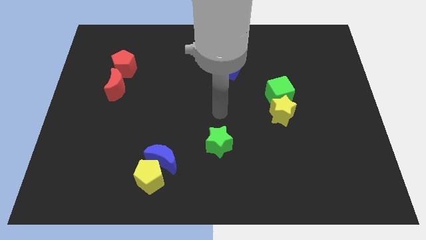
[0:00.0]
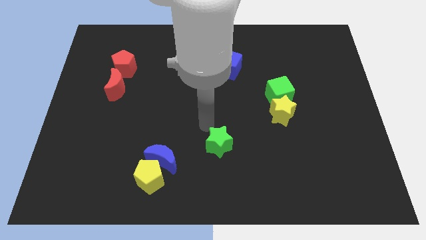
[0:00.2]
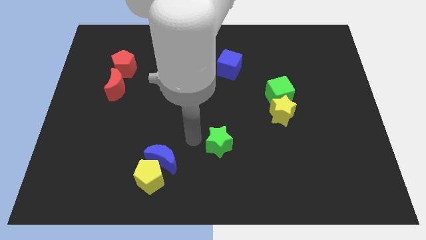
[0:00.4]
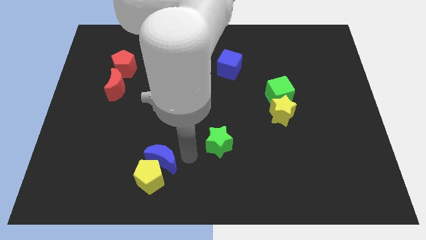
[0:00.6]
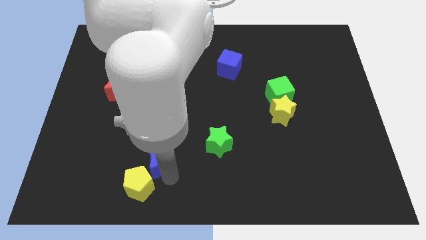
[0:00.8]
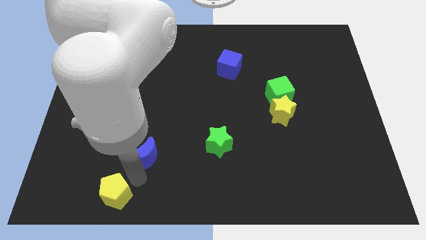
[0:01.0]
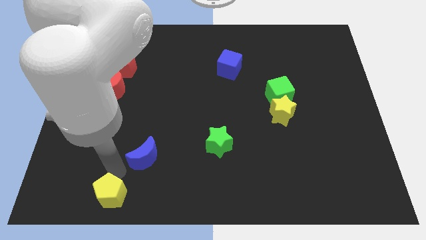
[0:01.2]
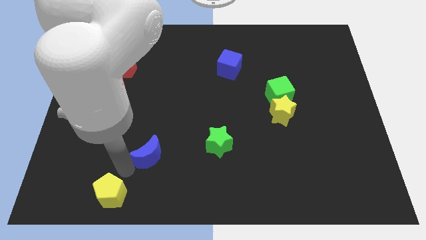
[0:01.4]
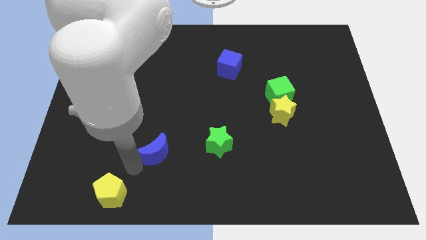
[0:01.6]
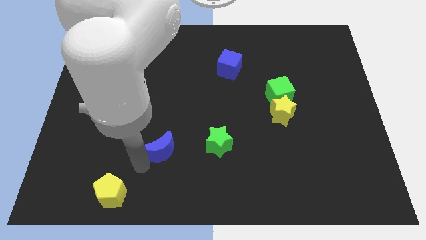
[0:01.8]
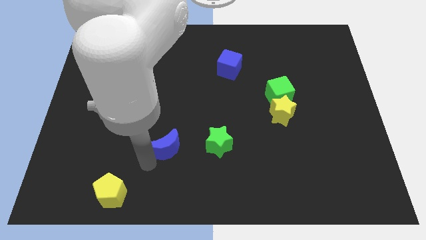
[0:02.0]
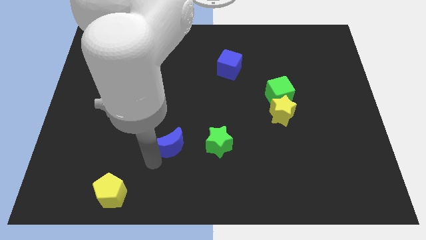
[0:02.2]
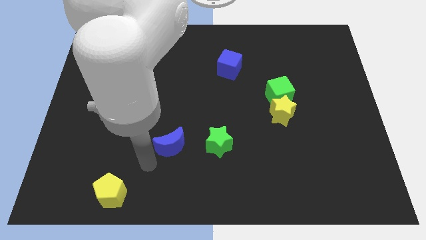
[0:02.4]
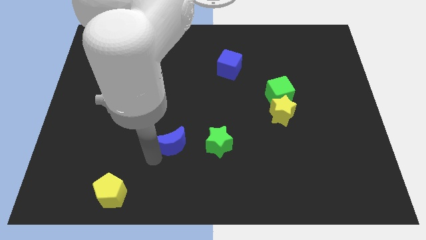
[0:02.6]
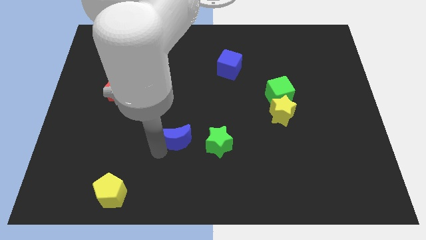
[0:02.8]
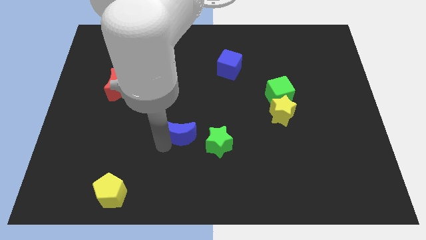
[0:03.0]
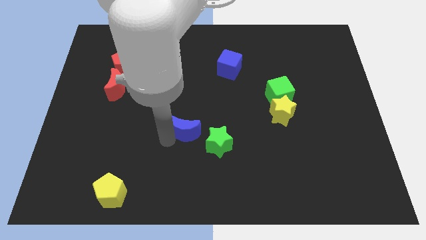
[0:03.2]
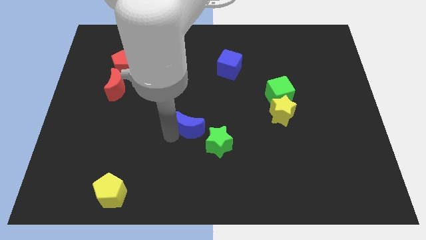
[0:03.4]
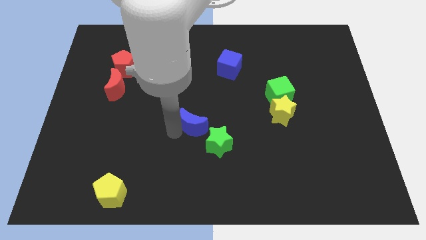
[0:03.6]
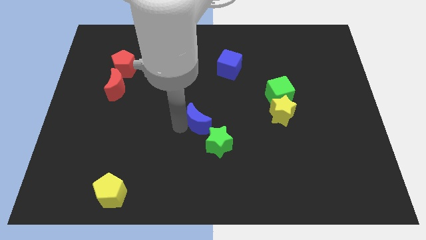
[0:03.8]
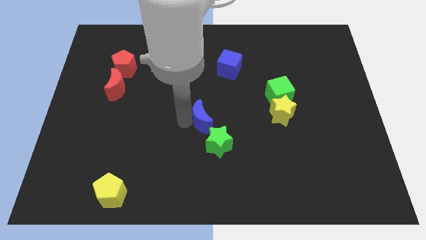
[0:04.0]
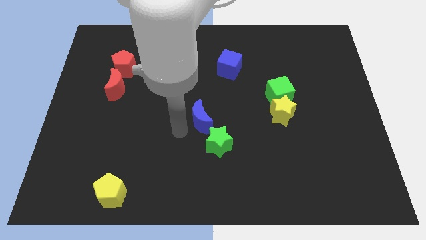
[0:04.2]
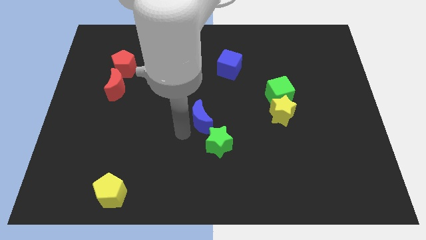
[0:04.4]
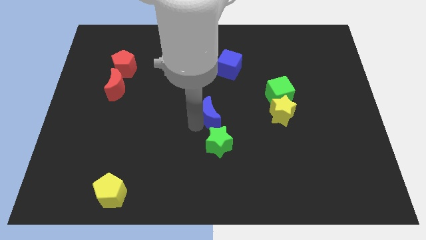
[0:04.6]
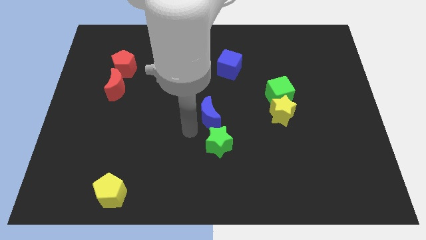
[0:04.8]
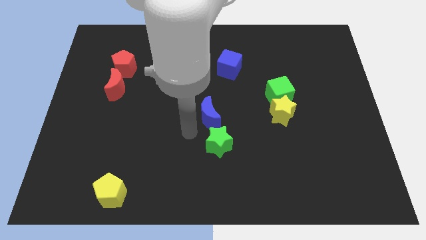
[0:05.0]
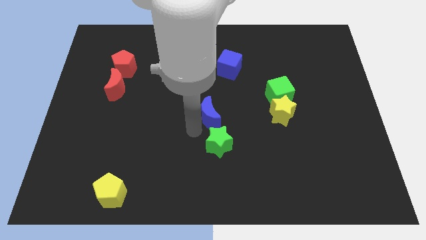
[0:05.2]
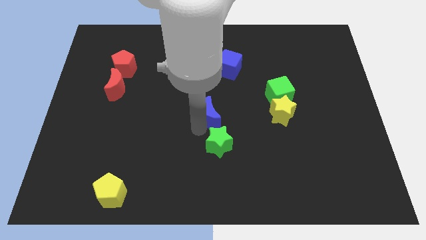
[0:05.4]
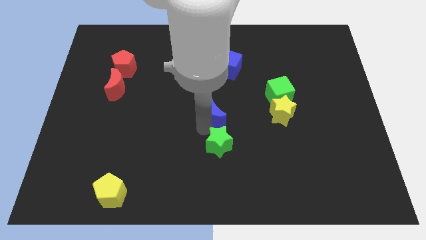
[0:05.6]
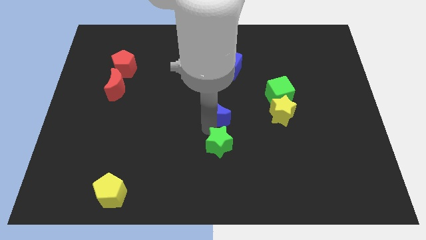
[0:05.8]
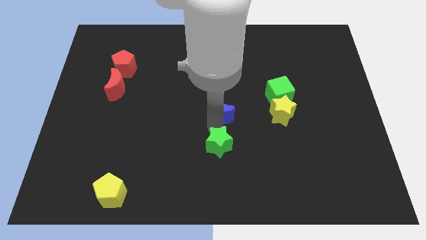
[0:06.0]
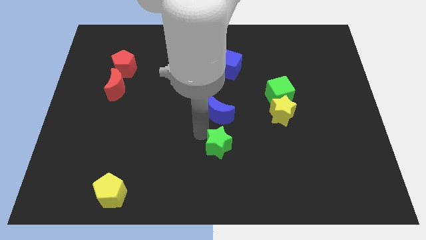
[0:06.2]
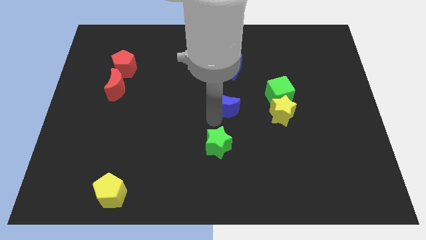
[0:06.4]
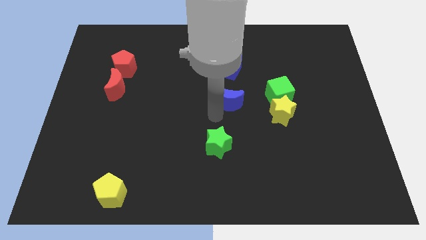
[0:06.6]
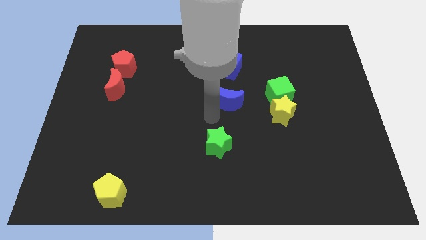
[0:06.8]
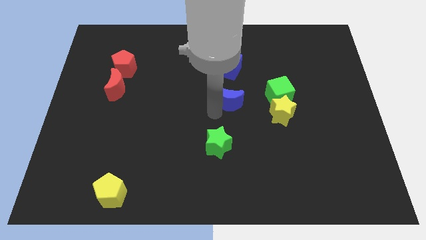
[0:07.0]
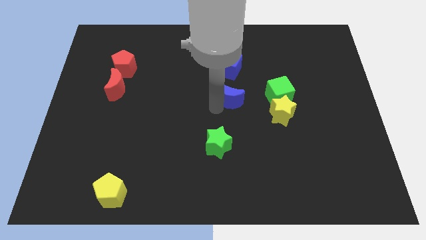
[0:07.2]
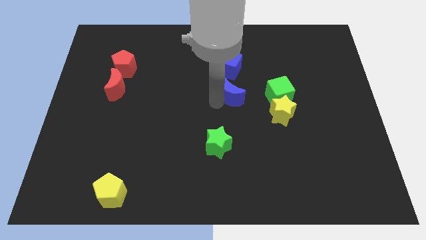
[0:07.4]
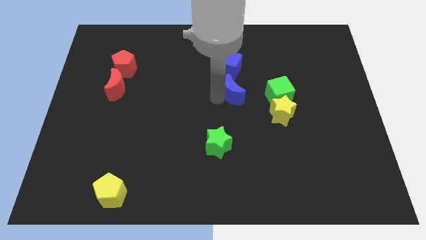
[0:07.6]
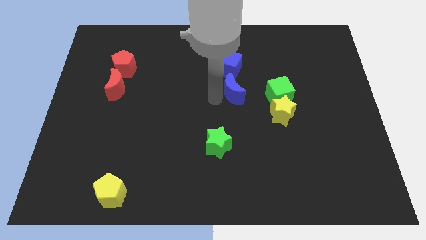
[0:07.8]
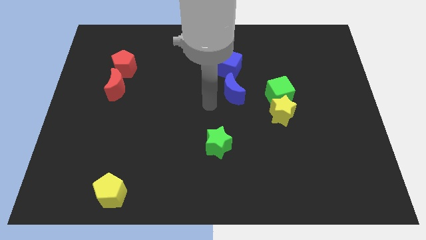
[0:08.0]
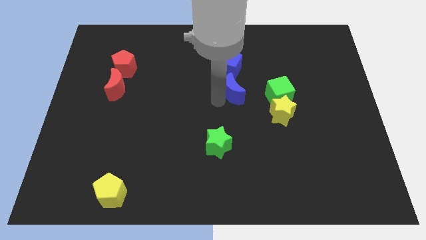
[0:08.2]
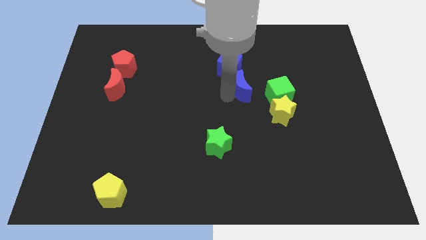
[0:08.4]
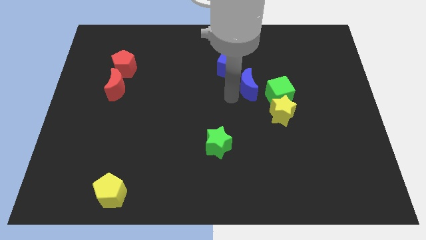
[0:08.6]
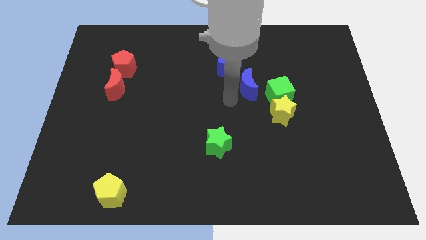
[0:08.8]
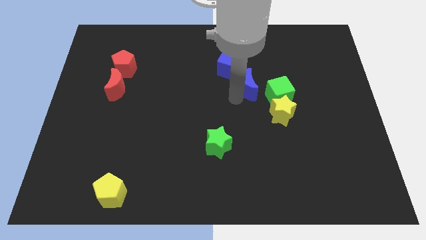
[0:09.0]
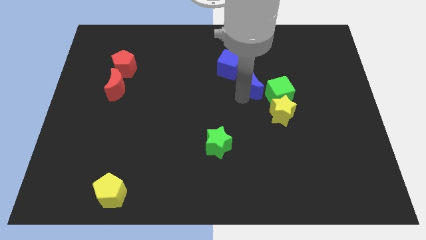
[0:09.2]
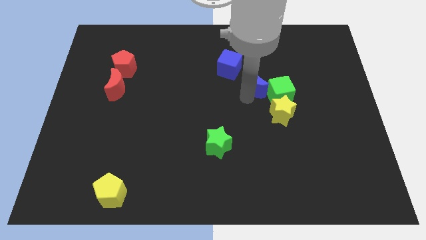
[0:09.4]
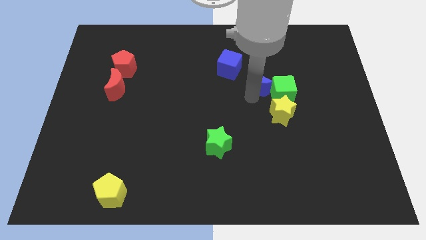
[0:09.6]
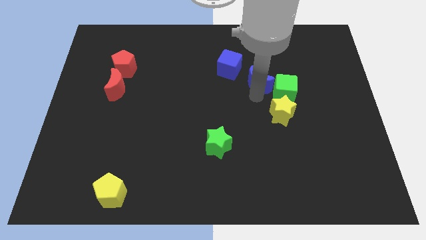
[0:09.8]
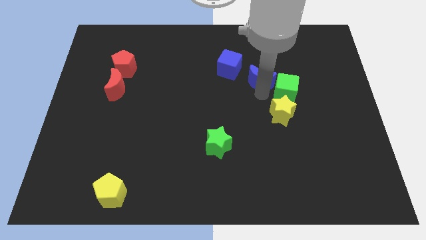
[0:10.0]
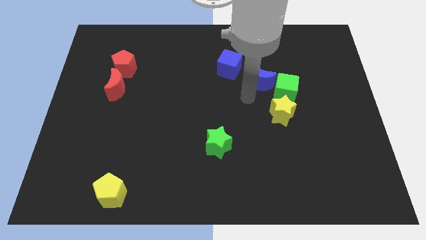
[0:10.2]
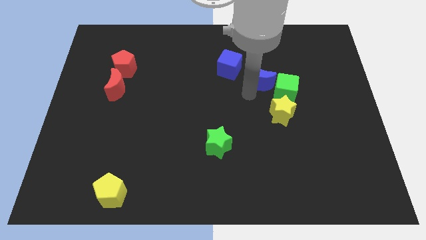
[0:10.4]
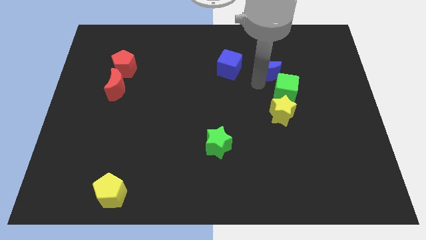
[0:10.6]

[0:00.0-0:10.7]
put the blue moon to the top of the green cube
